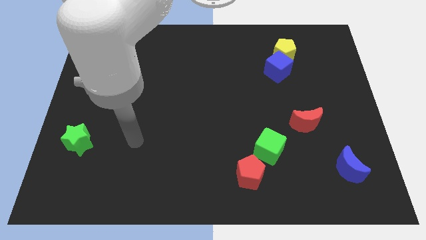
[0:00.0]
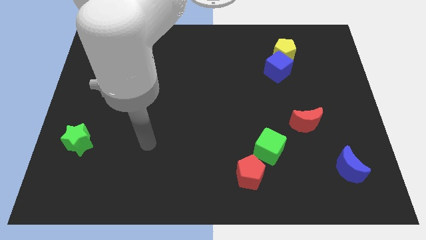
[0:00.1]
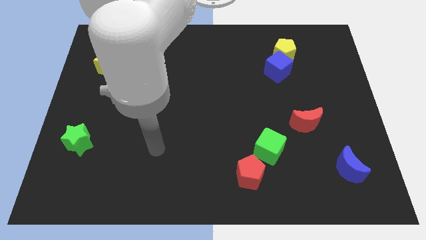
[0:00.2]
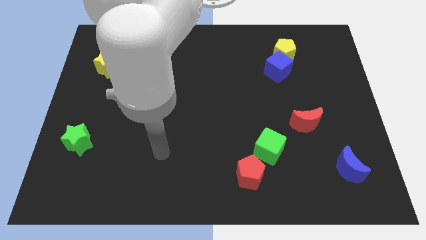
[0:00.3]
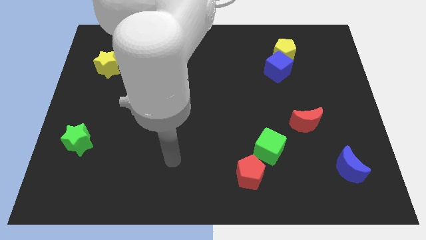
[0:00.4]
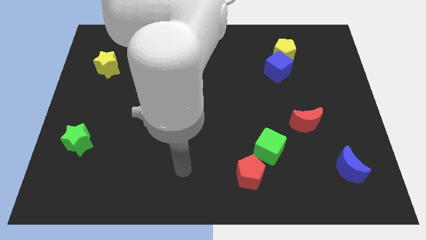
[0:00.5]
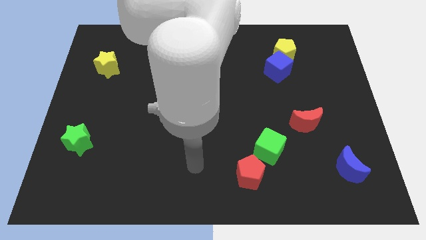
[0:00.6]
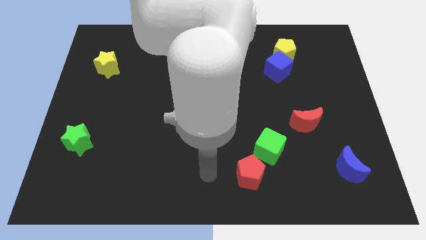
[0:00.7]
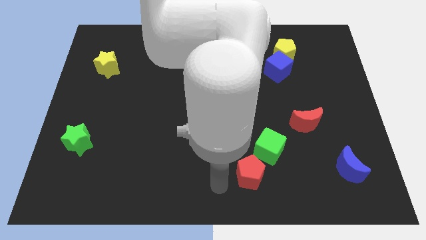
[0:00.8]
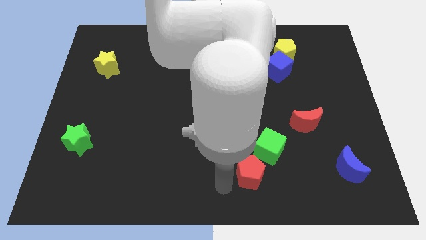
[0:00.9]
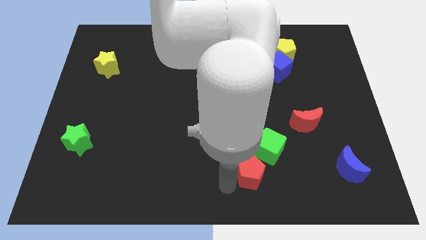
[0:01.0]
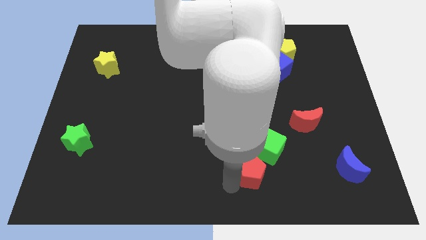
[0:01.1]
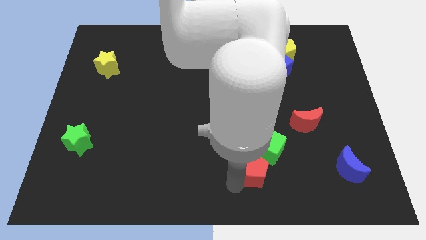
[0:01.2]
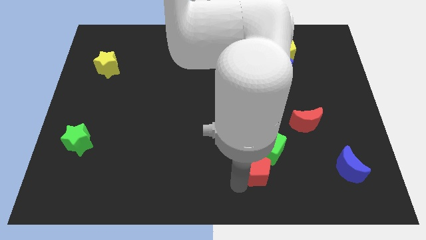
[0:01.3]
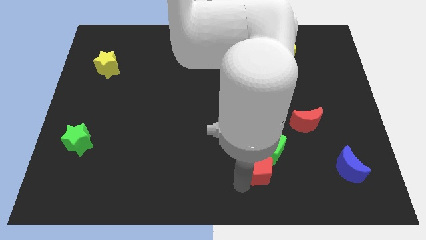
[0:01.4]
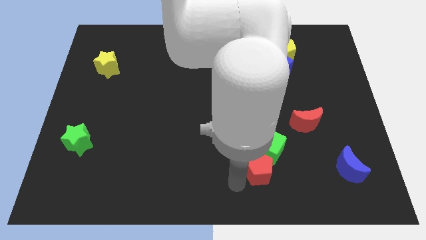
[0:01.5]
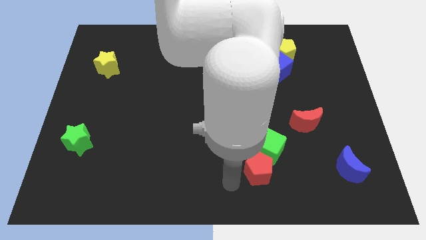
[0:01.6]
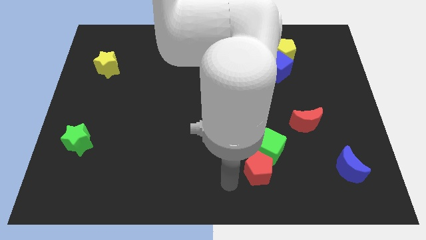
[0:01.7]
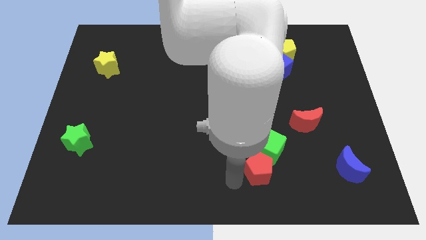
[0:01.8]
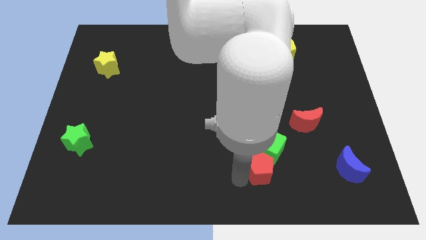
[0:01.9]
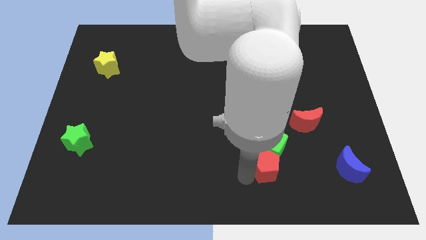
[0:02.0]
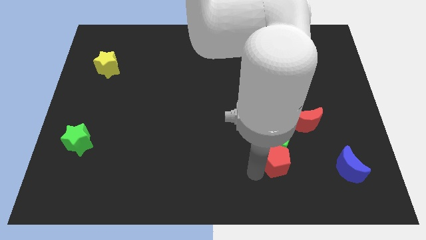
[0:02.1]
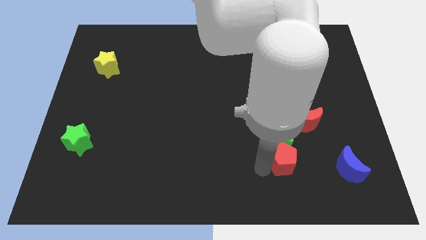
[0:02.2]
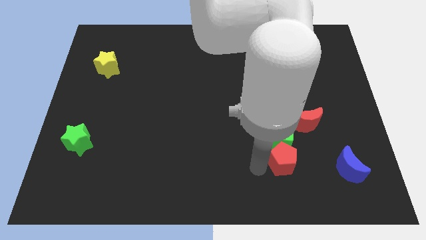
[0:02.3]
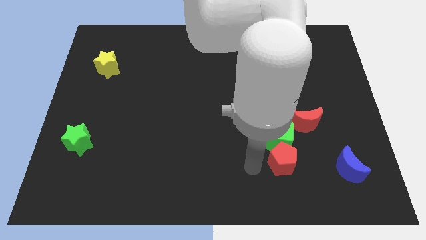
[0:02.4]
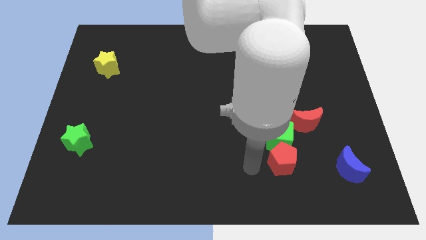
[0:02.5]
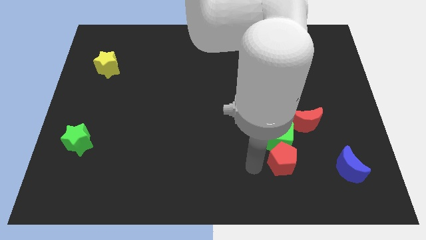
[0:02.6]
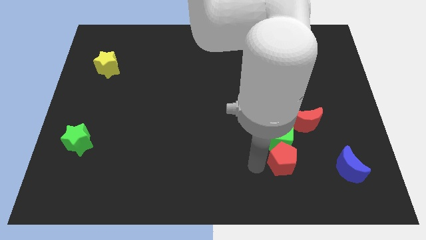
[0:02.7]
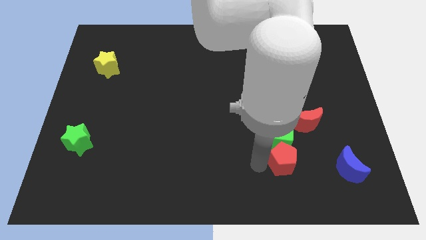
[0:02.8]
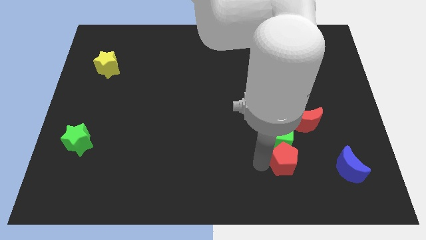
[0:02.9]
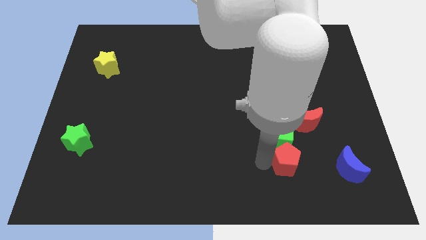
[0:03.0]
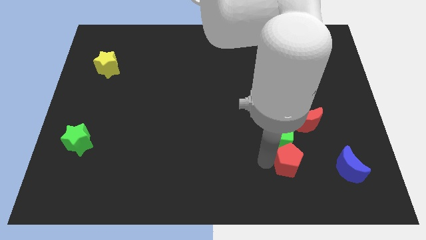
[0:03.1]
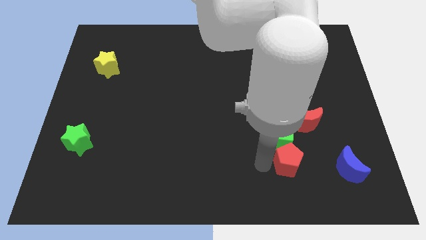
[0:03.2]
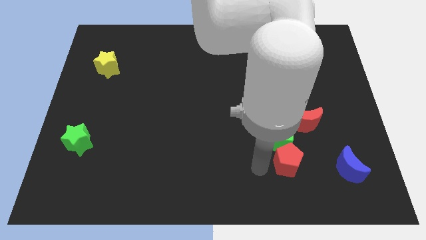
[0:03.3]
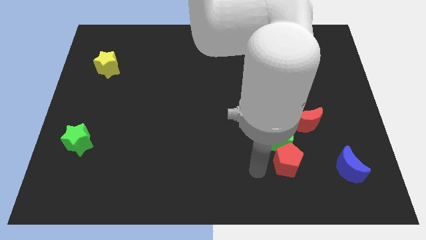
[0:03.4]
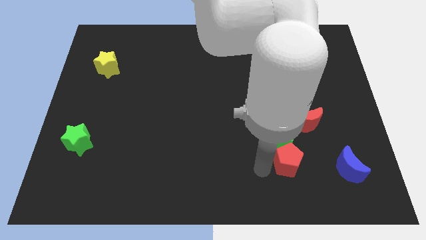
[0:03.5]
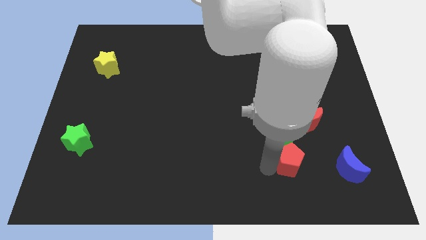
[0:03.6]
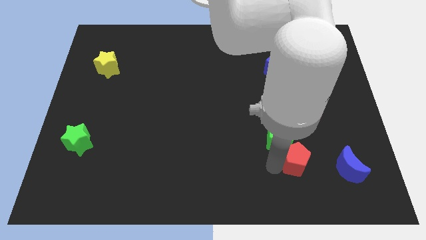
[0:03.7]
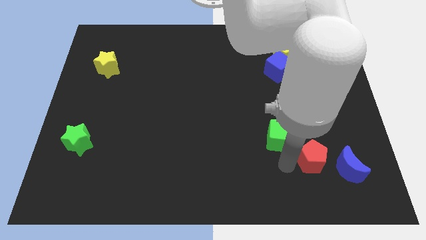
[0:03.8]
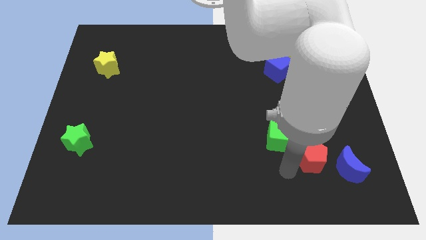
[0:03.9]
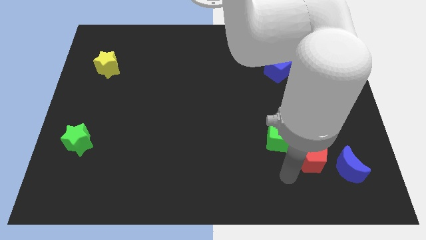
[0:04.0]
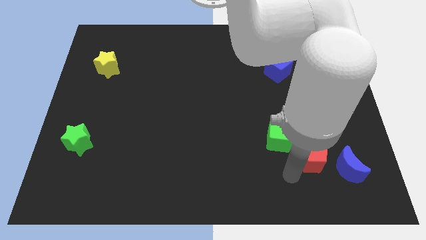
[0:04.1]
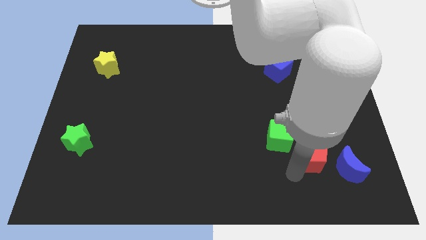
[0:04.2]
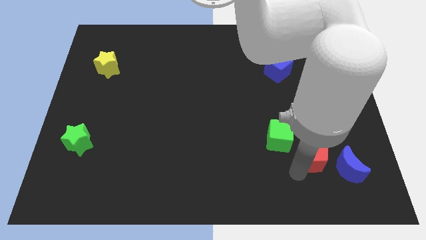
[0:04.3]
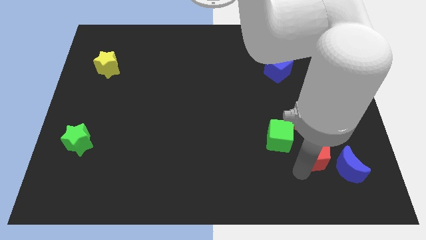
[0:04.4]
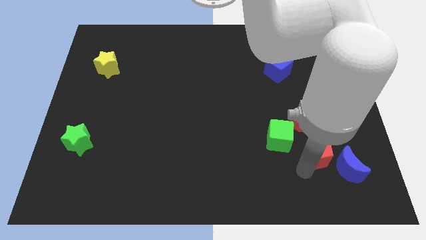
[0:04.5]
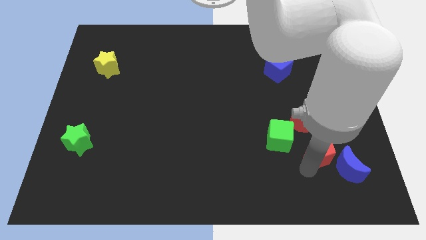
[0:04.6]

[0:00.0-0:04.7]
push the red pentagon to the bottom right side of the red moon

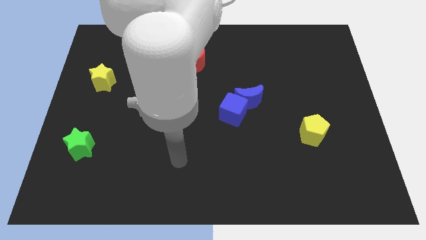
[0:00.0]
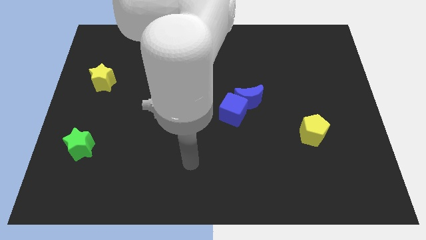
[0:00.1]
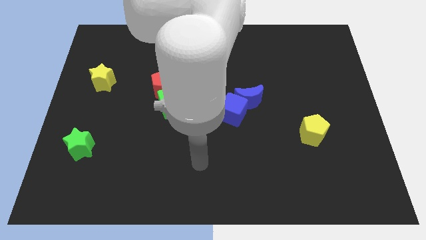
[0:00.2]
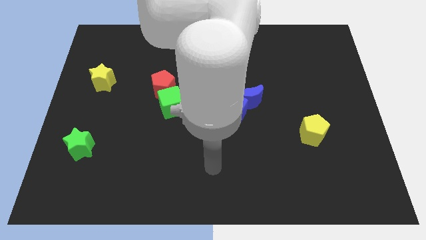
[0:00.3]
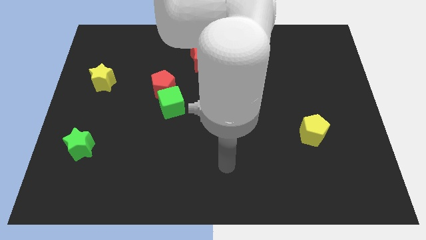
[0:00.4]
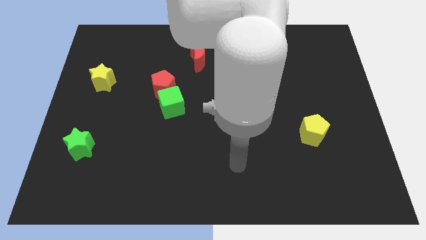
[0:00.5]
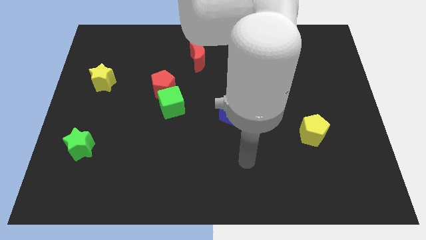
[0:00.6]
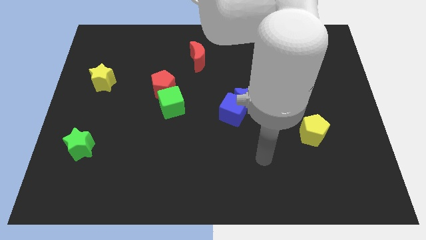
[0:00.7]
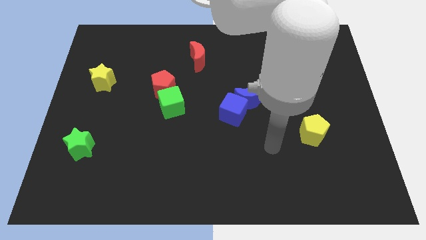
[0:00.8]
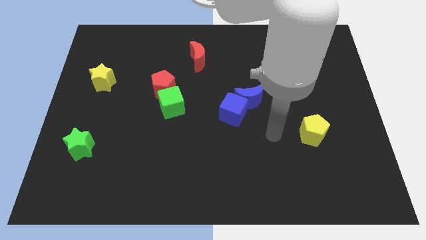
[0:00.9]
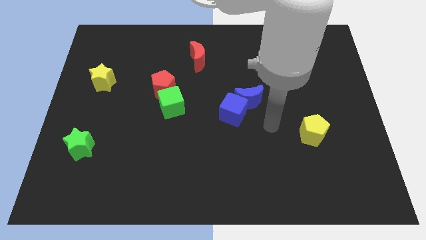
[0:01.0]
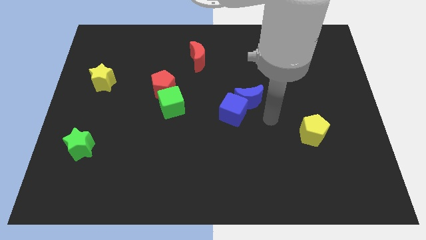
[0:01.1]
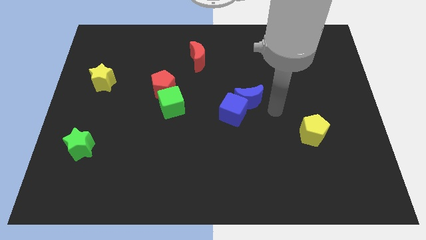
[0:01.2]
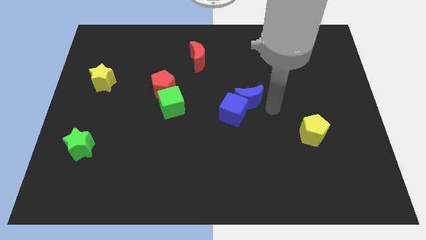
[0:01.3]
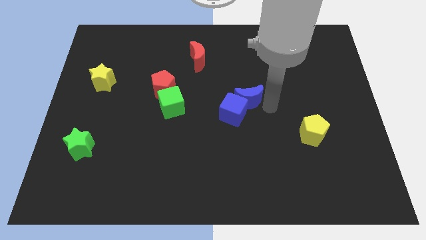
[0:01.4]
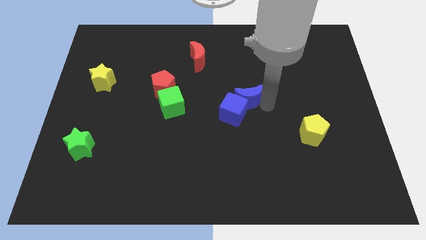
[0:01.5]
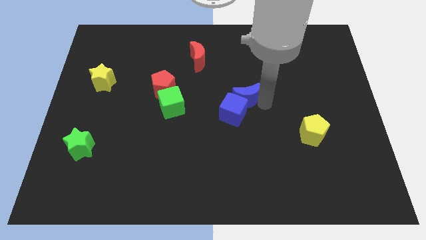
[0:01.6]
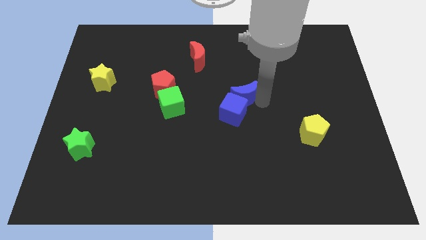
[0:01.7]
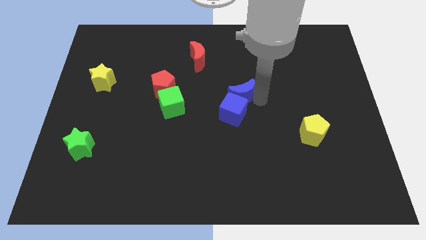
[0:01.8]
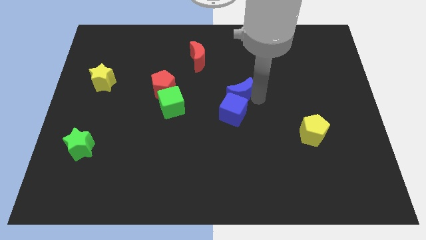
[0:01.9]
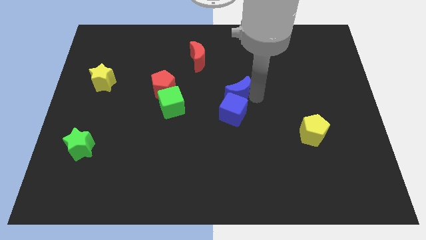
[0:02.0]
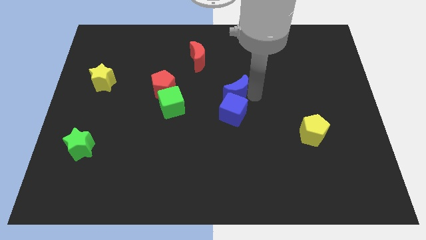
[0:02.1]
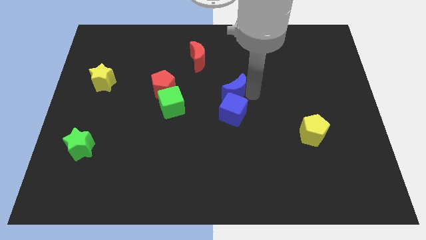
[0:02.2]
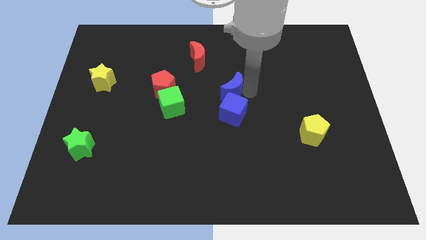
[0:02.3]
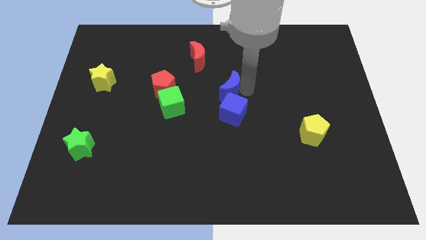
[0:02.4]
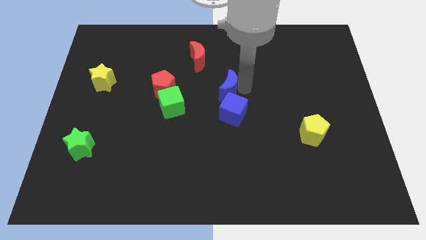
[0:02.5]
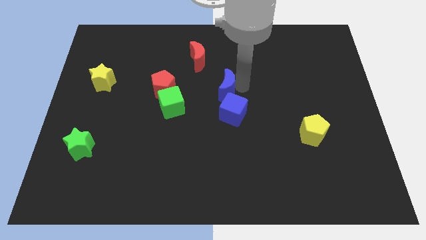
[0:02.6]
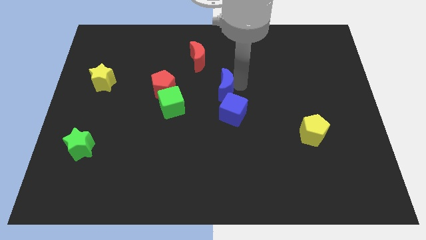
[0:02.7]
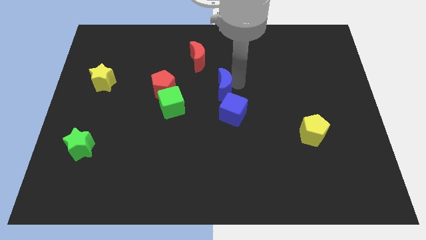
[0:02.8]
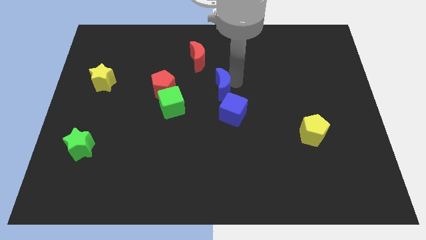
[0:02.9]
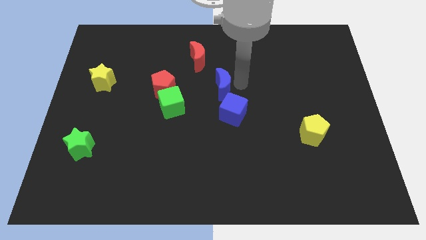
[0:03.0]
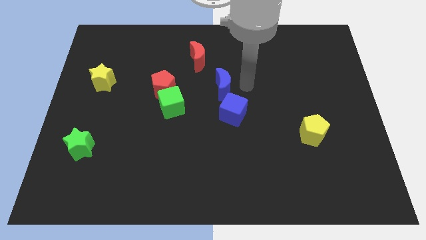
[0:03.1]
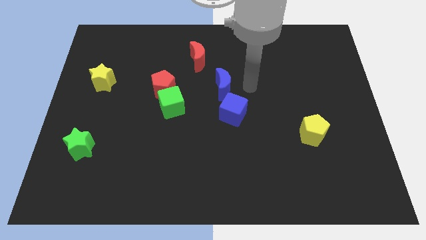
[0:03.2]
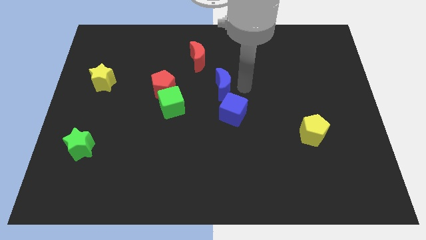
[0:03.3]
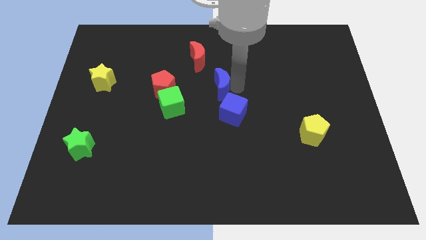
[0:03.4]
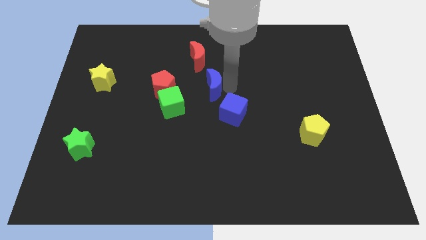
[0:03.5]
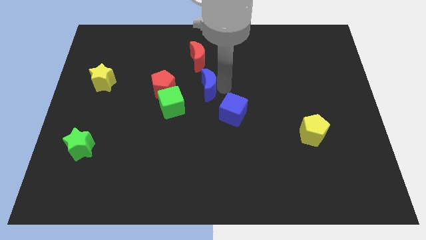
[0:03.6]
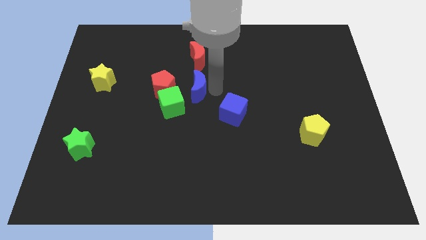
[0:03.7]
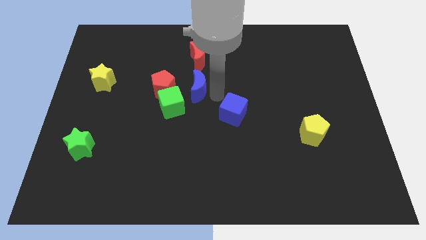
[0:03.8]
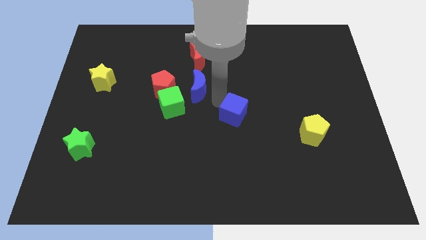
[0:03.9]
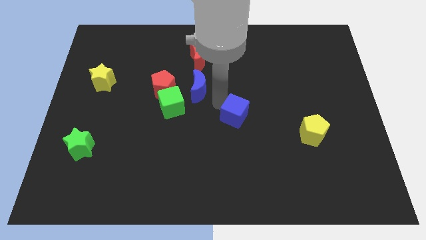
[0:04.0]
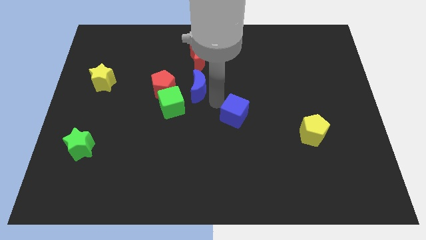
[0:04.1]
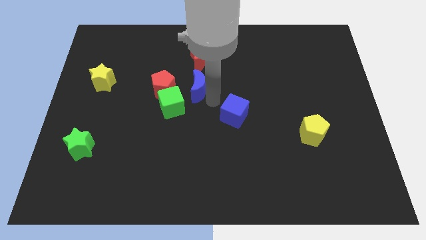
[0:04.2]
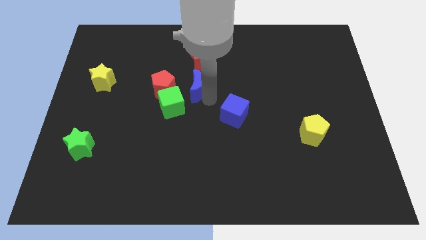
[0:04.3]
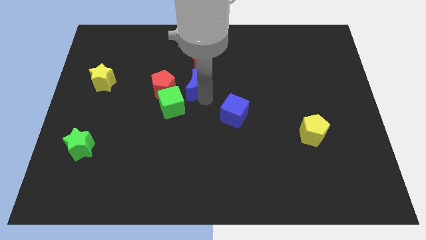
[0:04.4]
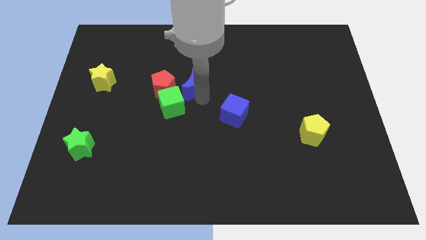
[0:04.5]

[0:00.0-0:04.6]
put the blue moon to the top of the green cube
